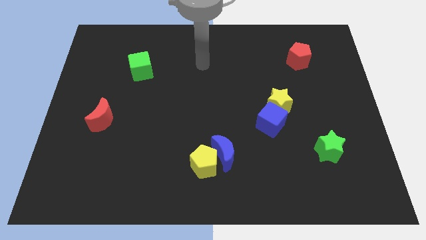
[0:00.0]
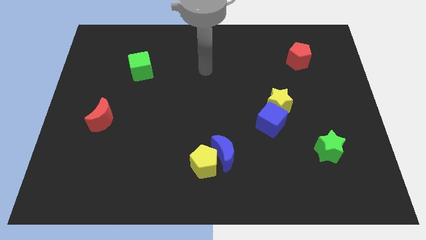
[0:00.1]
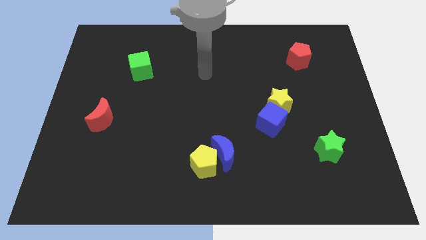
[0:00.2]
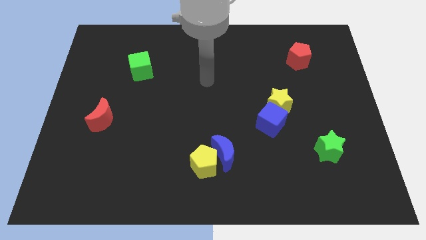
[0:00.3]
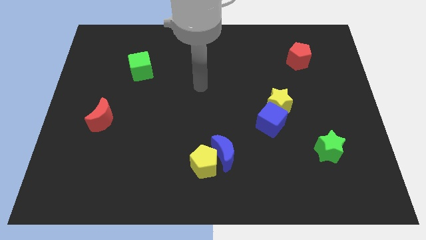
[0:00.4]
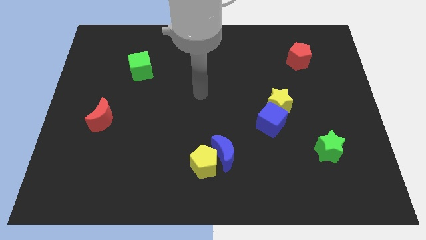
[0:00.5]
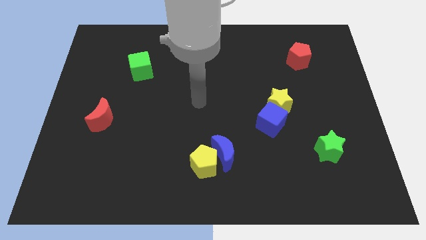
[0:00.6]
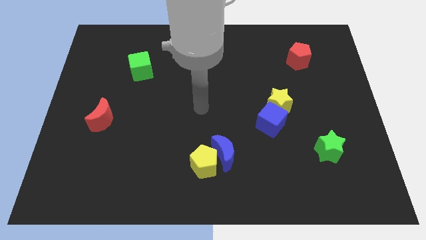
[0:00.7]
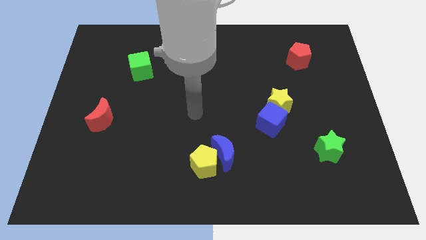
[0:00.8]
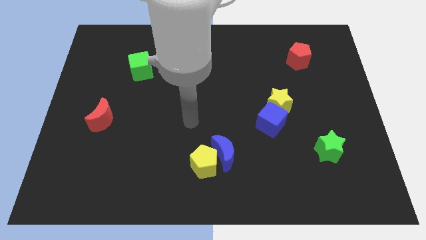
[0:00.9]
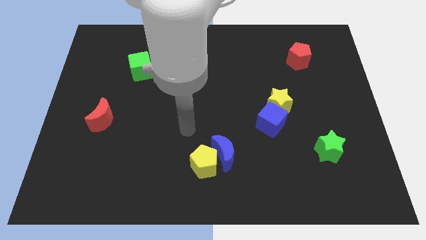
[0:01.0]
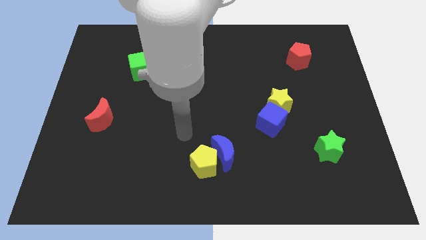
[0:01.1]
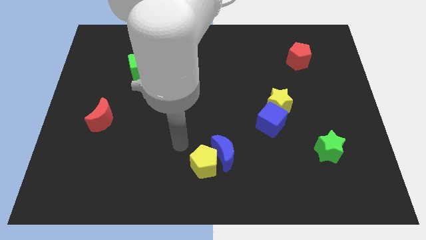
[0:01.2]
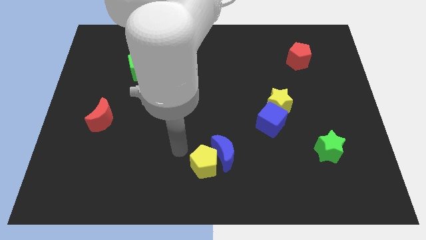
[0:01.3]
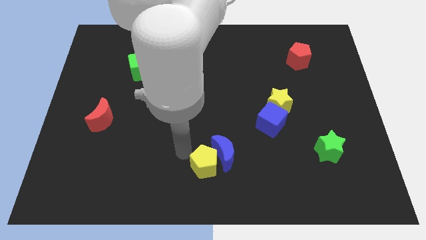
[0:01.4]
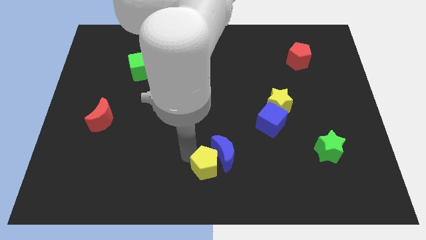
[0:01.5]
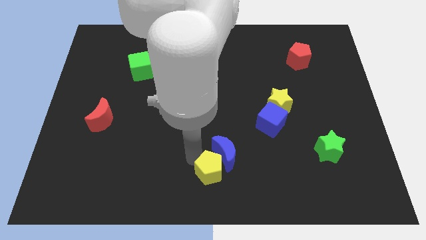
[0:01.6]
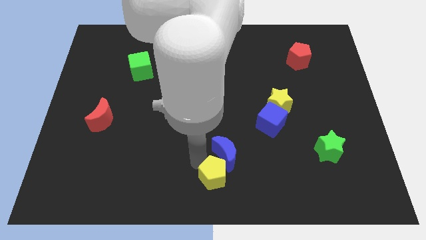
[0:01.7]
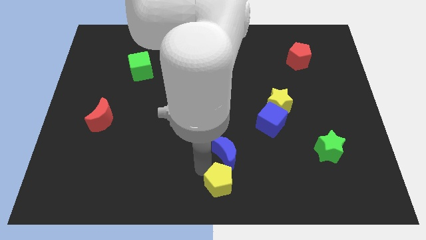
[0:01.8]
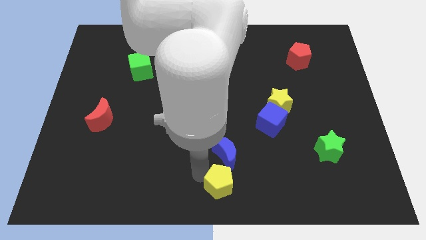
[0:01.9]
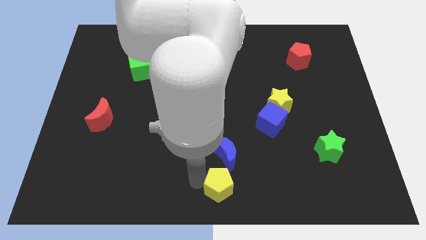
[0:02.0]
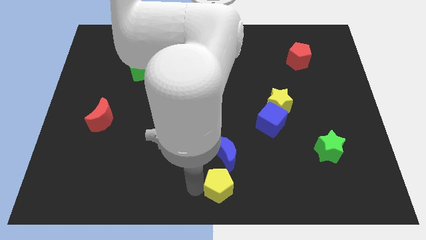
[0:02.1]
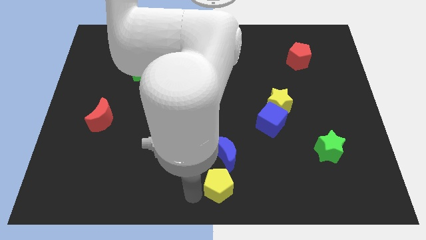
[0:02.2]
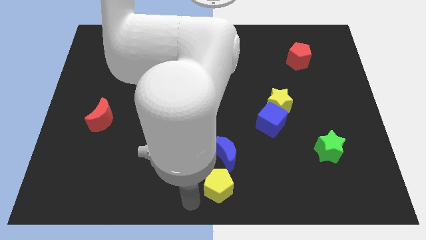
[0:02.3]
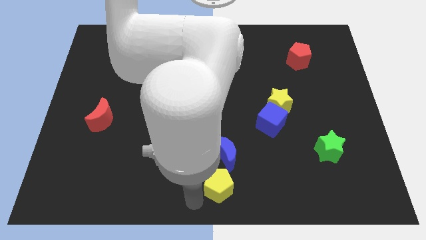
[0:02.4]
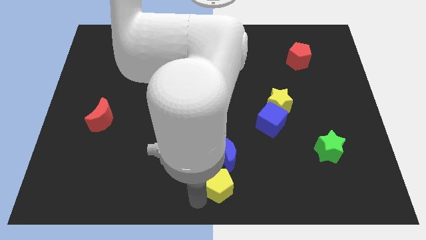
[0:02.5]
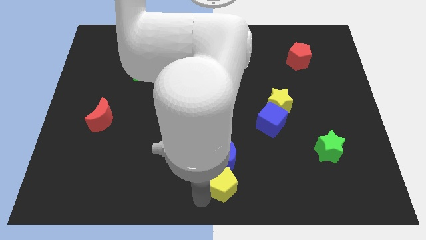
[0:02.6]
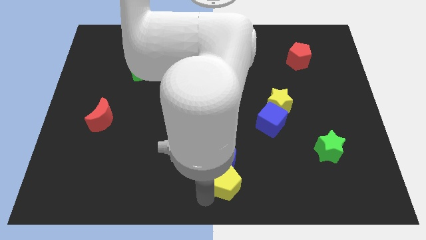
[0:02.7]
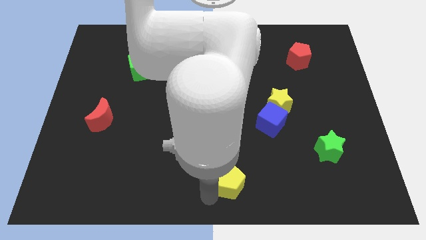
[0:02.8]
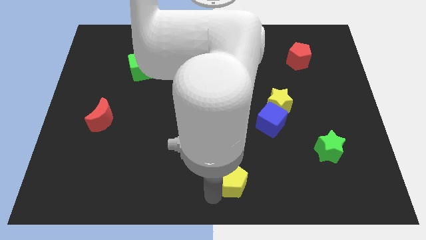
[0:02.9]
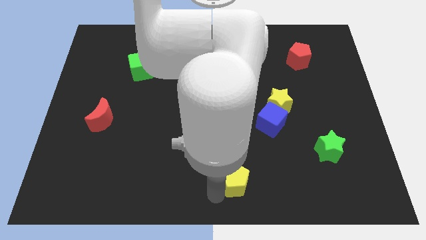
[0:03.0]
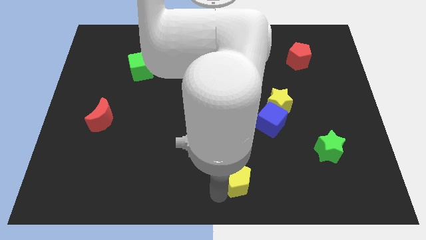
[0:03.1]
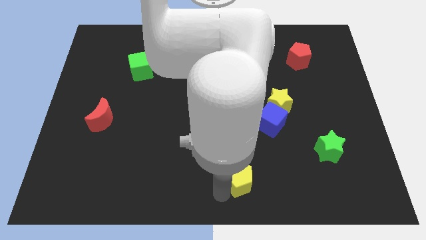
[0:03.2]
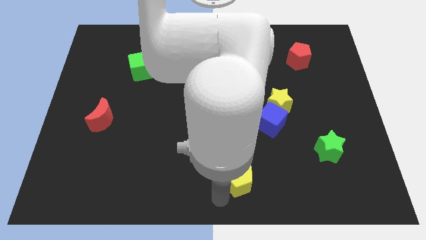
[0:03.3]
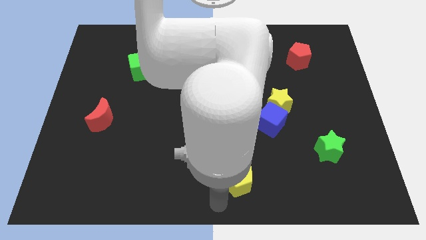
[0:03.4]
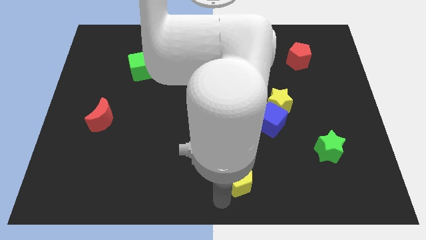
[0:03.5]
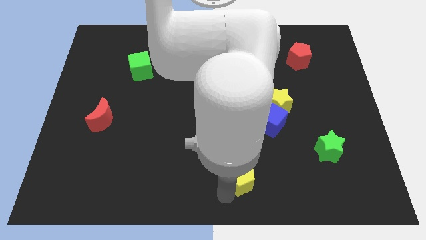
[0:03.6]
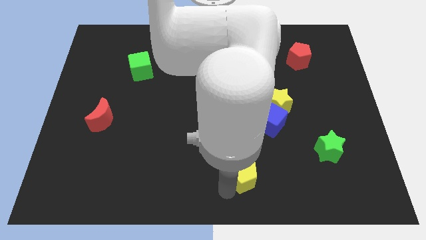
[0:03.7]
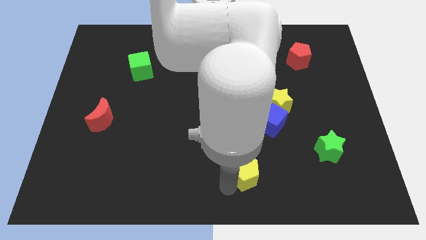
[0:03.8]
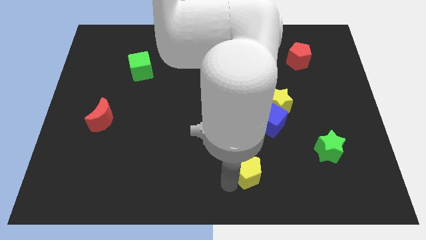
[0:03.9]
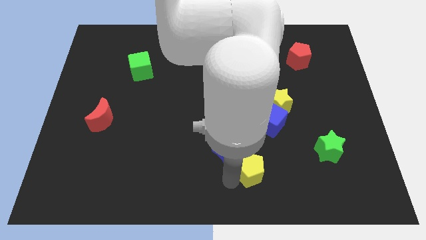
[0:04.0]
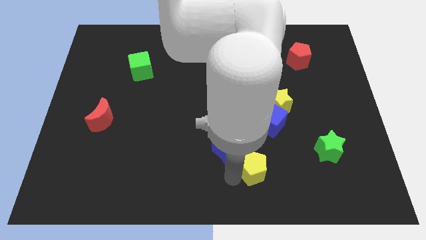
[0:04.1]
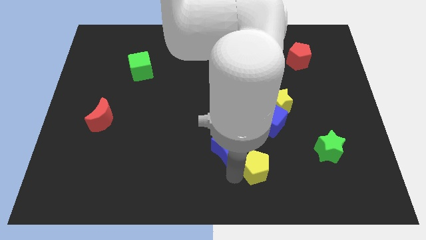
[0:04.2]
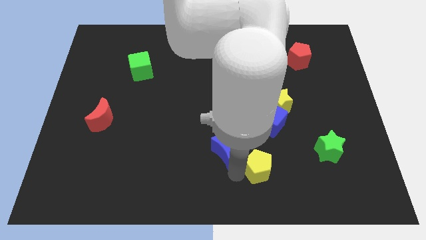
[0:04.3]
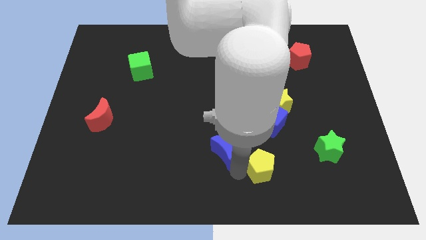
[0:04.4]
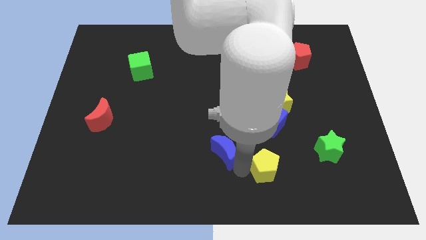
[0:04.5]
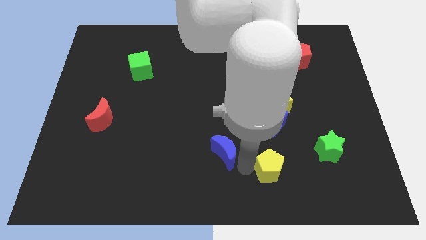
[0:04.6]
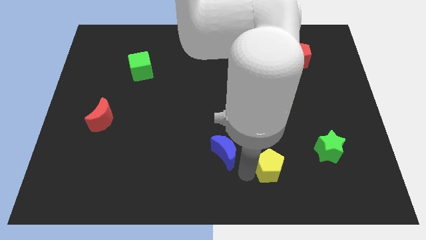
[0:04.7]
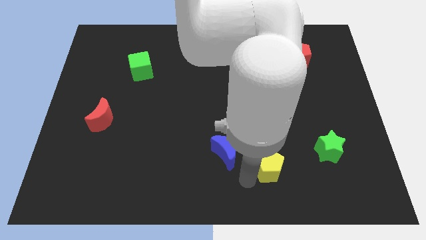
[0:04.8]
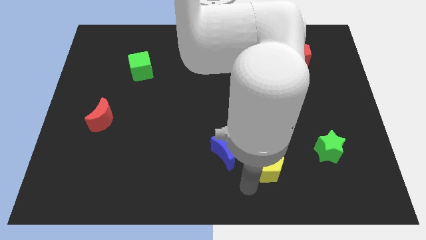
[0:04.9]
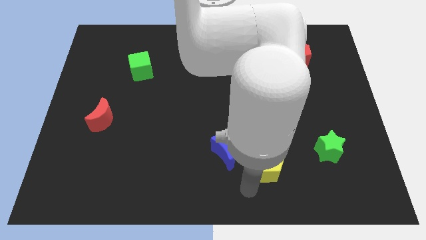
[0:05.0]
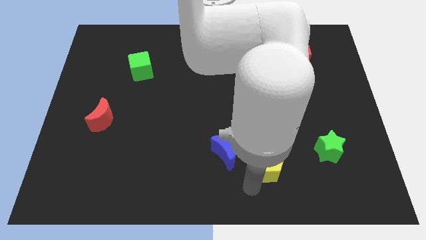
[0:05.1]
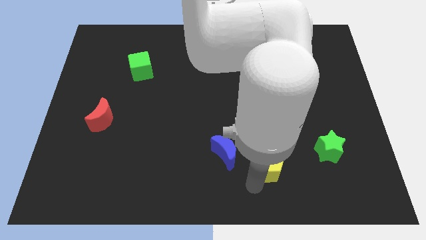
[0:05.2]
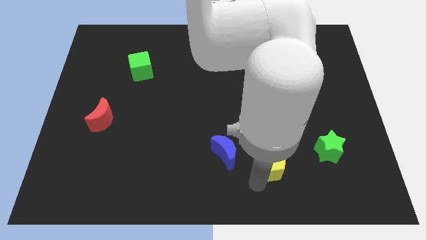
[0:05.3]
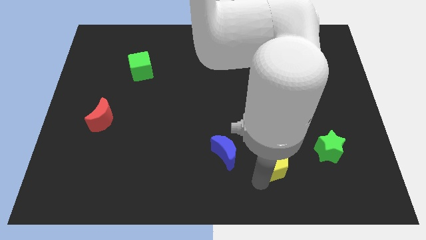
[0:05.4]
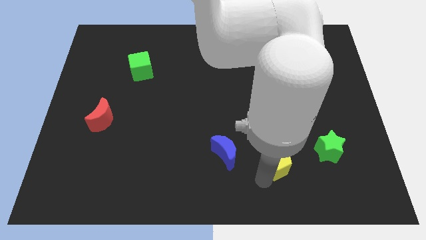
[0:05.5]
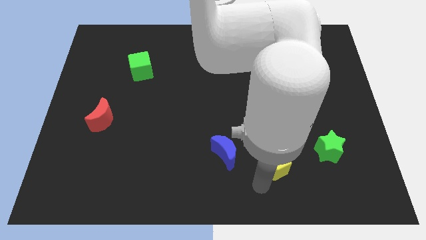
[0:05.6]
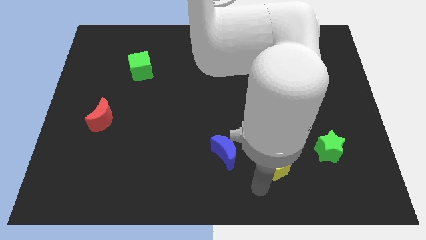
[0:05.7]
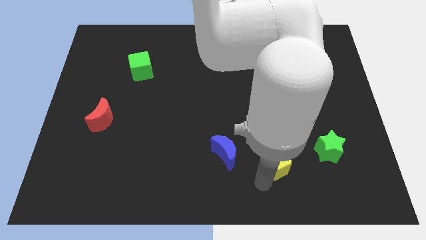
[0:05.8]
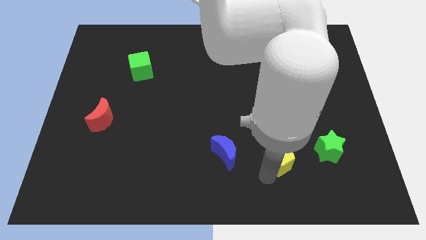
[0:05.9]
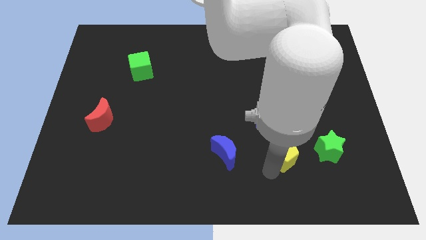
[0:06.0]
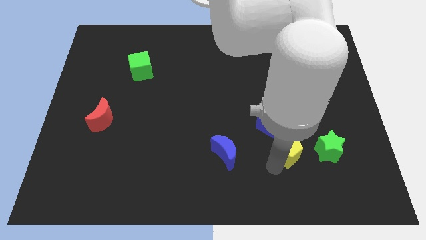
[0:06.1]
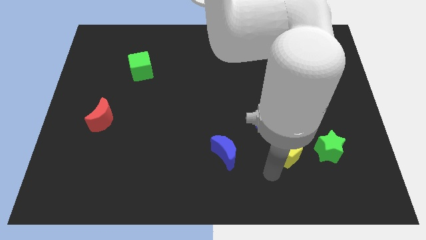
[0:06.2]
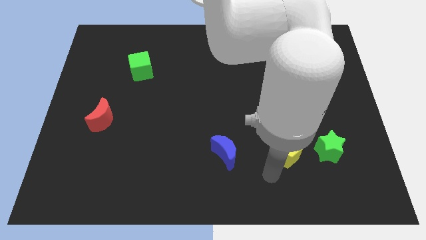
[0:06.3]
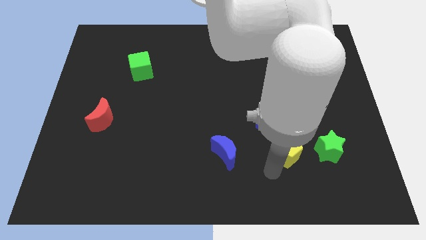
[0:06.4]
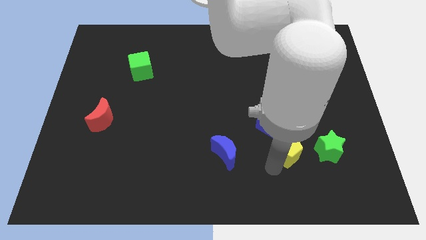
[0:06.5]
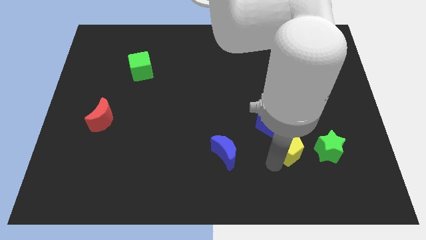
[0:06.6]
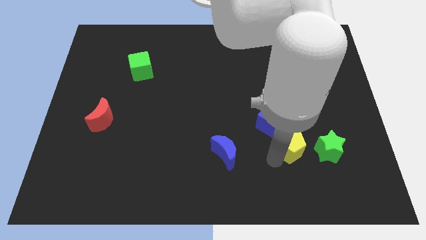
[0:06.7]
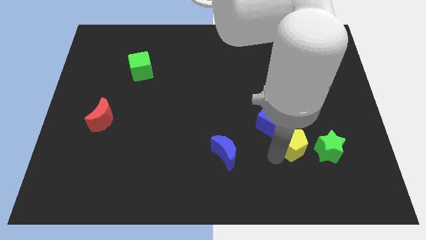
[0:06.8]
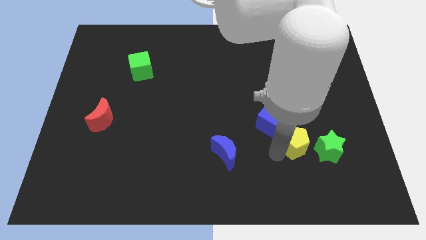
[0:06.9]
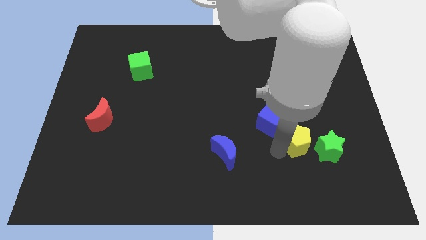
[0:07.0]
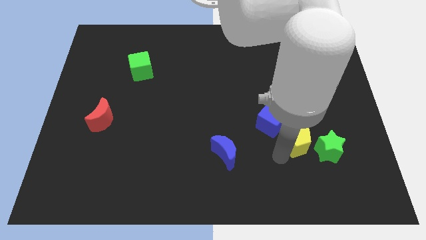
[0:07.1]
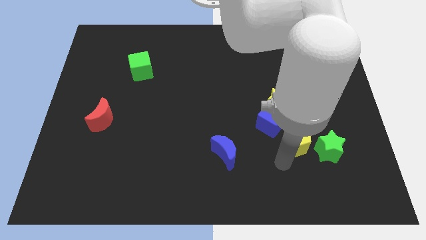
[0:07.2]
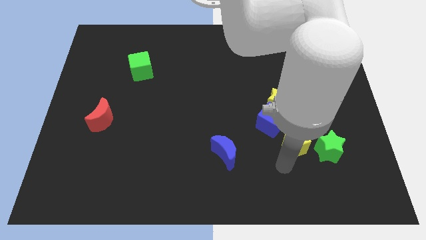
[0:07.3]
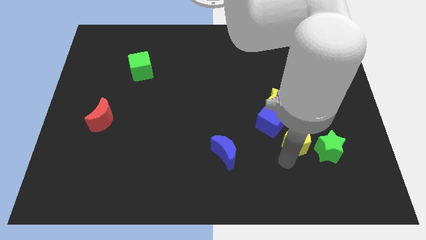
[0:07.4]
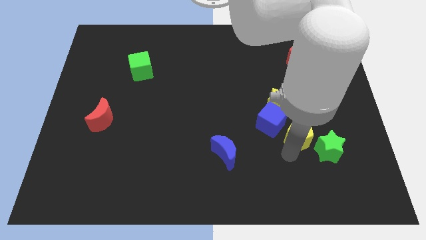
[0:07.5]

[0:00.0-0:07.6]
slide the yellow pentagon to the bottom right of the yellow star
